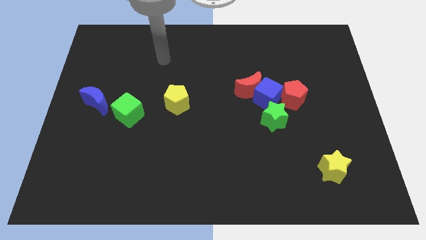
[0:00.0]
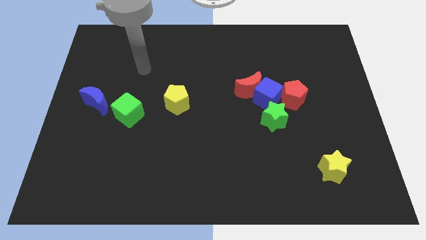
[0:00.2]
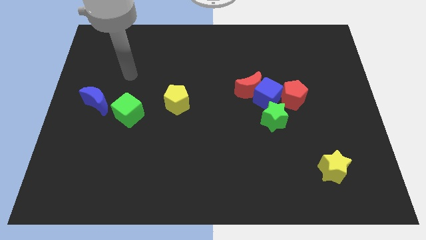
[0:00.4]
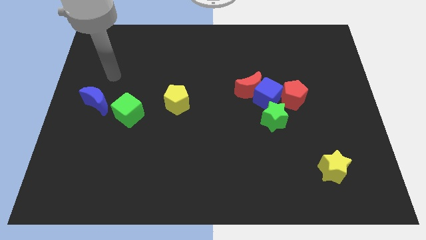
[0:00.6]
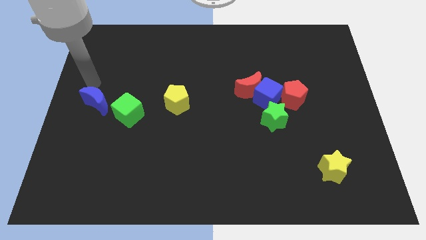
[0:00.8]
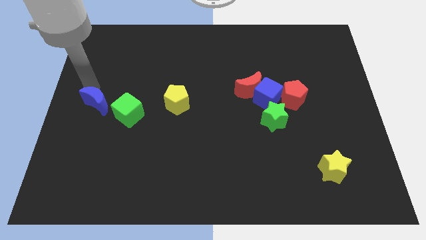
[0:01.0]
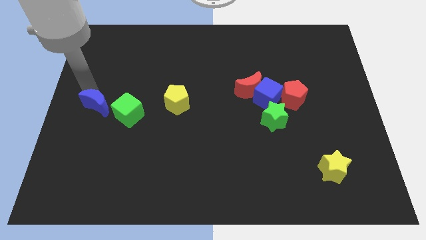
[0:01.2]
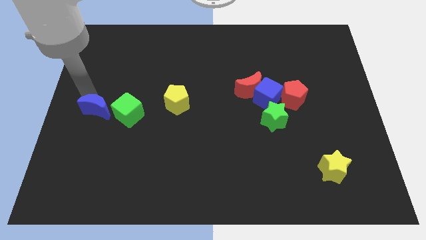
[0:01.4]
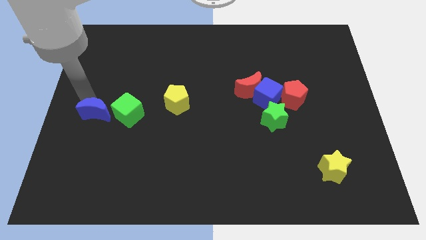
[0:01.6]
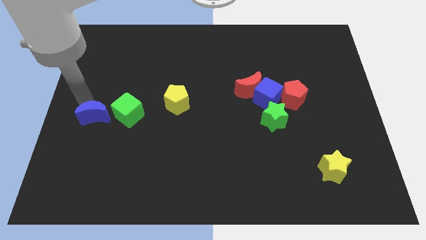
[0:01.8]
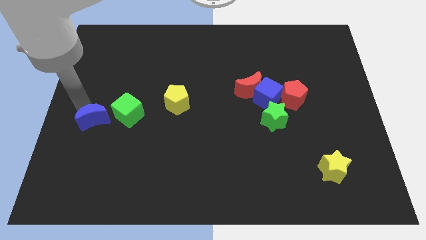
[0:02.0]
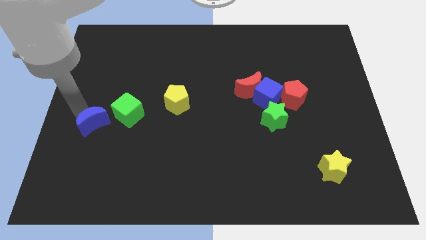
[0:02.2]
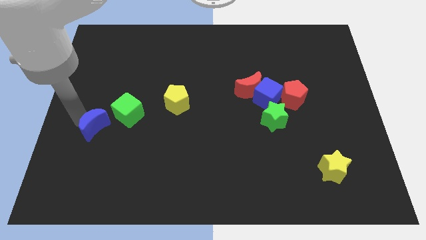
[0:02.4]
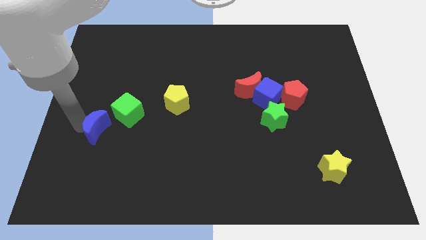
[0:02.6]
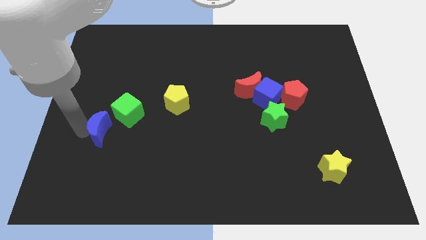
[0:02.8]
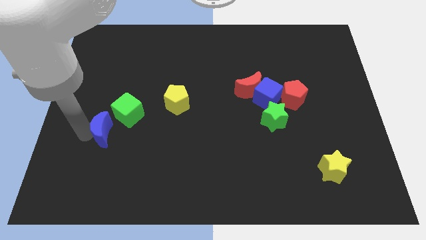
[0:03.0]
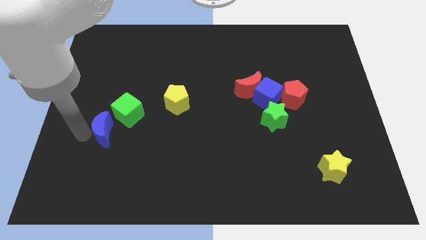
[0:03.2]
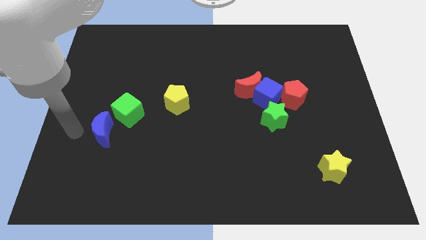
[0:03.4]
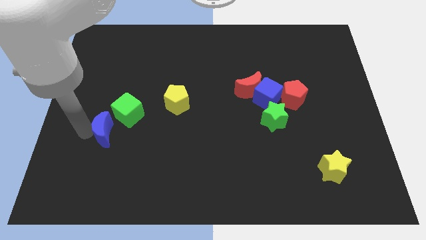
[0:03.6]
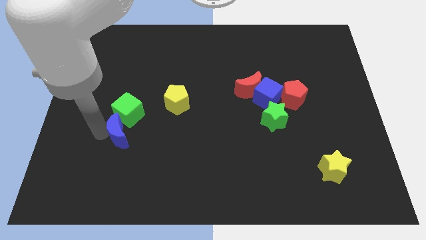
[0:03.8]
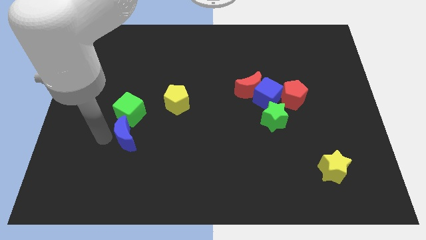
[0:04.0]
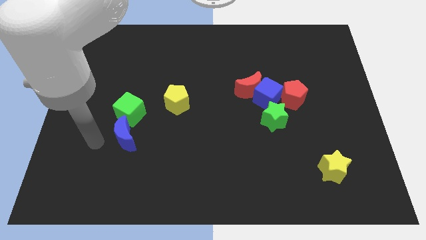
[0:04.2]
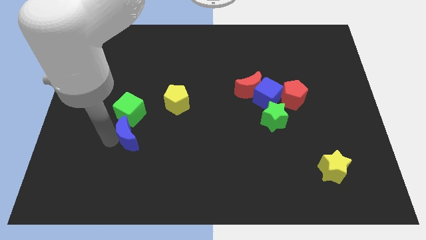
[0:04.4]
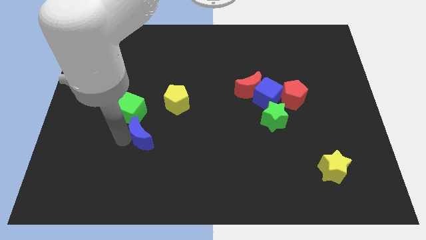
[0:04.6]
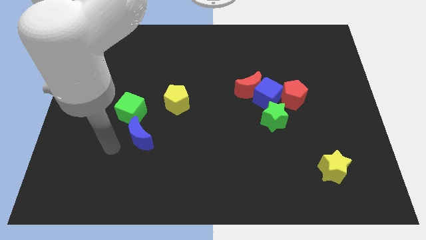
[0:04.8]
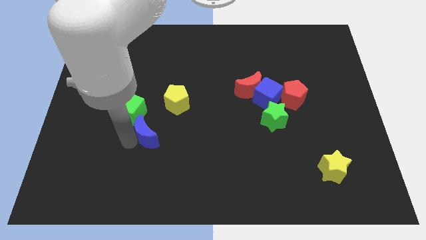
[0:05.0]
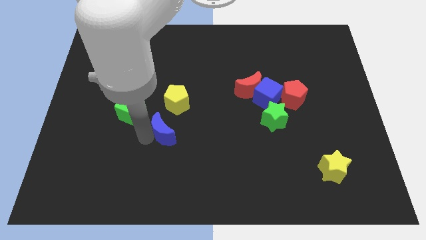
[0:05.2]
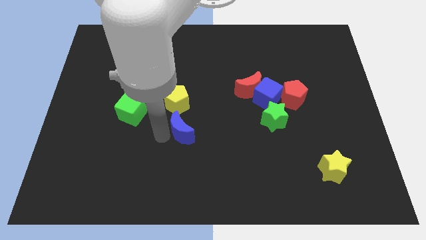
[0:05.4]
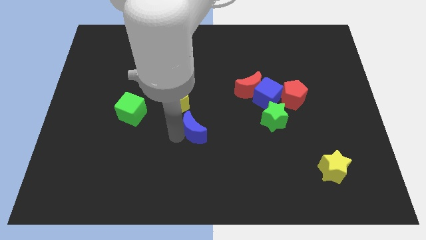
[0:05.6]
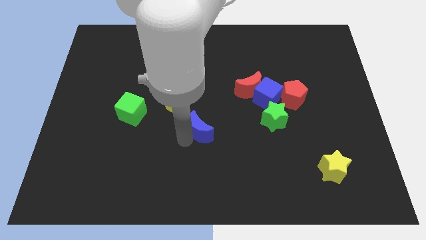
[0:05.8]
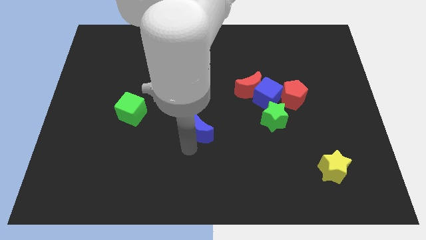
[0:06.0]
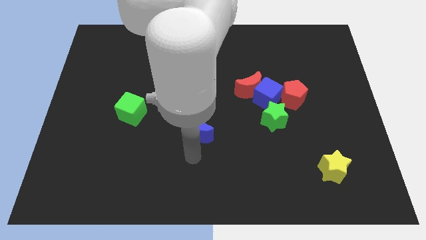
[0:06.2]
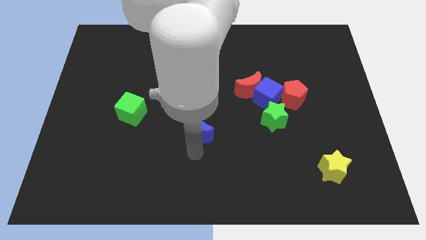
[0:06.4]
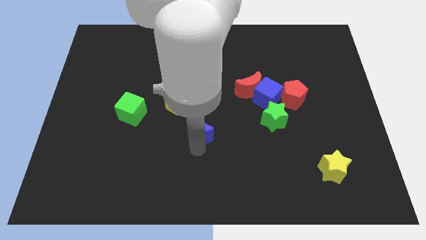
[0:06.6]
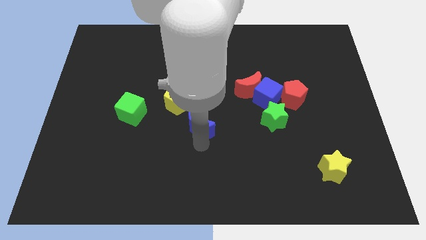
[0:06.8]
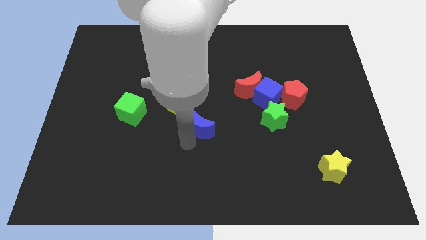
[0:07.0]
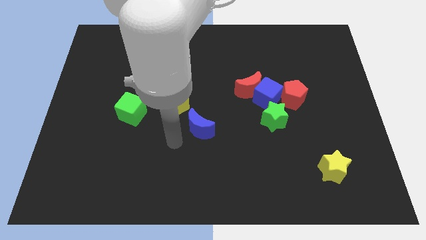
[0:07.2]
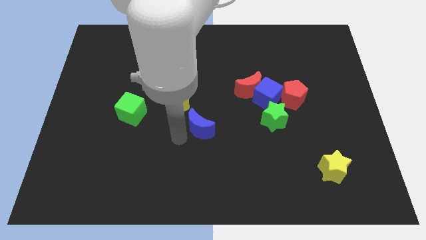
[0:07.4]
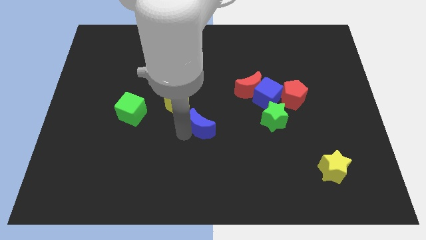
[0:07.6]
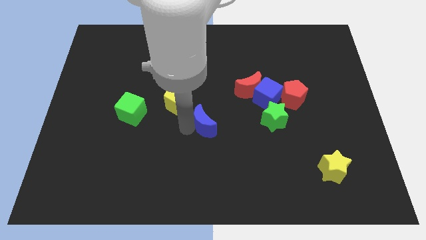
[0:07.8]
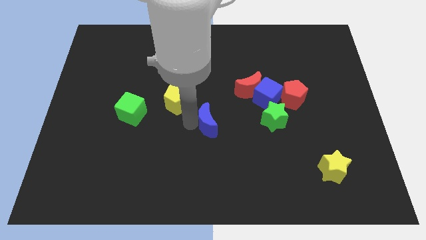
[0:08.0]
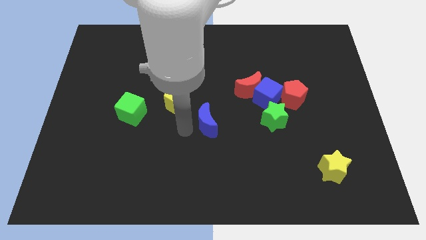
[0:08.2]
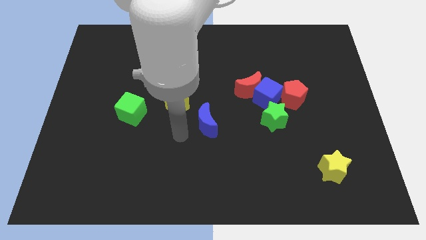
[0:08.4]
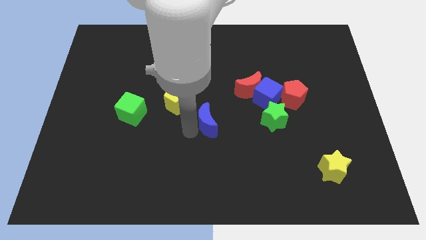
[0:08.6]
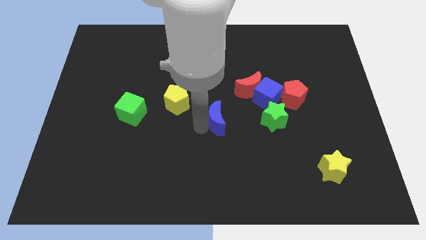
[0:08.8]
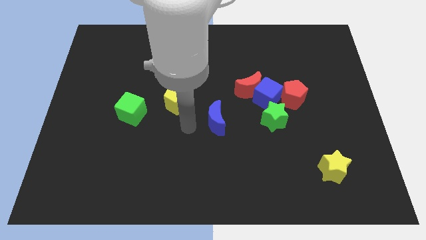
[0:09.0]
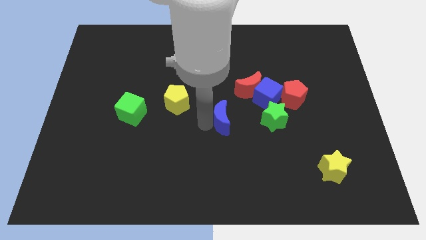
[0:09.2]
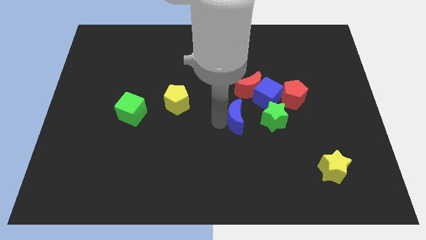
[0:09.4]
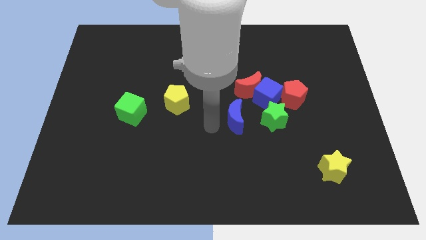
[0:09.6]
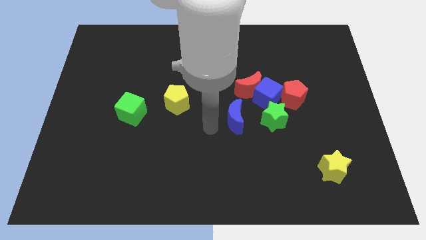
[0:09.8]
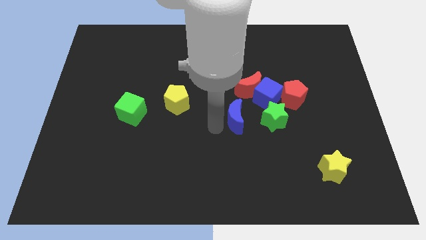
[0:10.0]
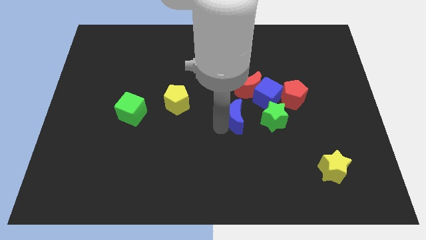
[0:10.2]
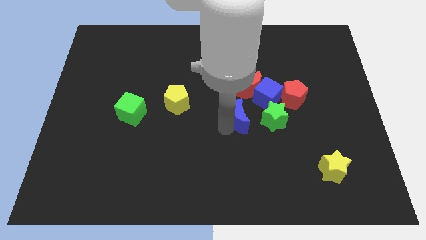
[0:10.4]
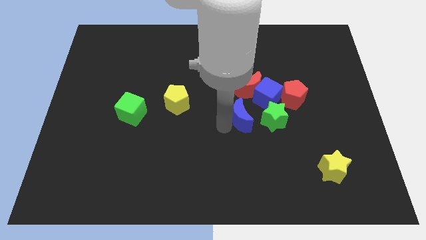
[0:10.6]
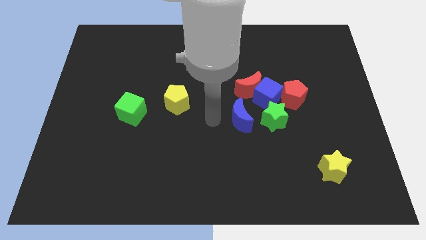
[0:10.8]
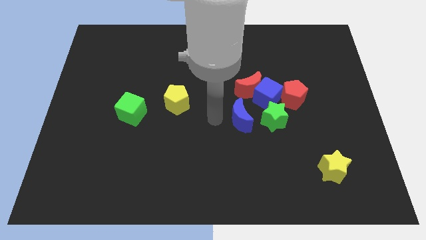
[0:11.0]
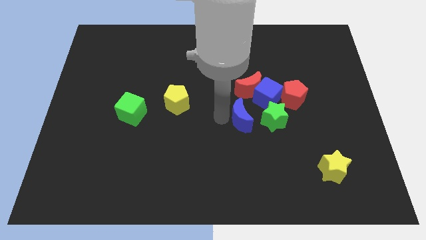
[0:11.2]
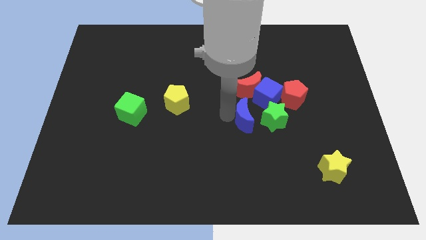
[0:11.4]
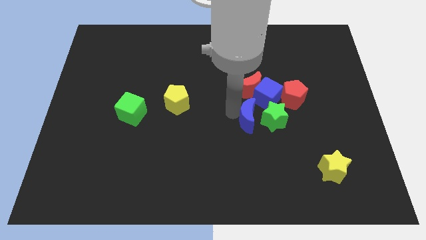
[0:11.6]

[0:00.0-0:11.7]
push the blue moon towards the green star

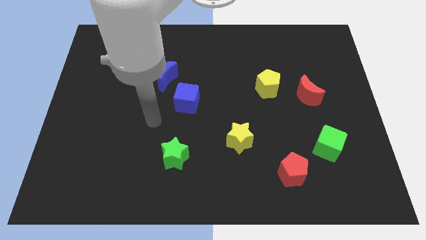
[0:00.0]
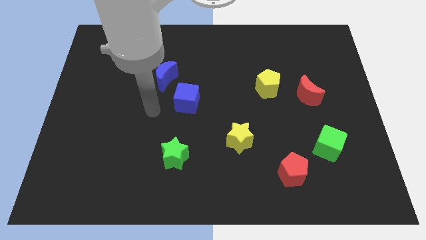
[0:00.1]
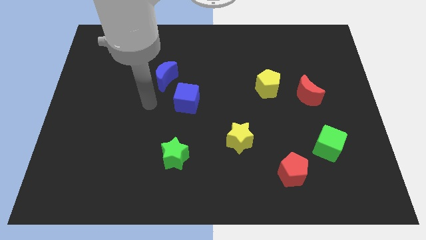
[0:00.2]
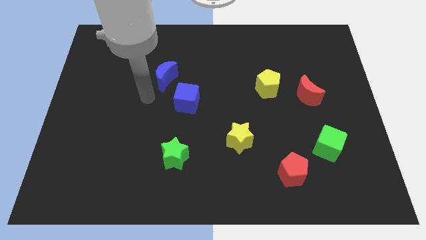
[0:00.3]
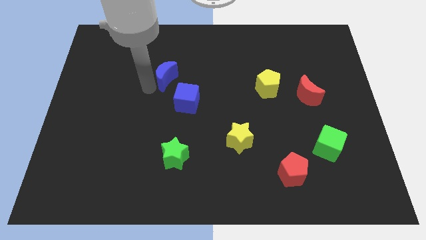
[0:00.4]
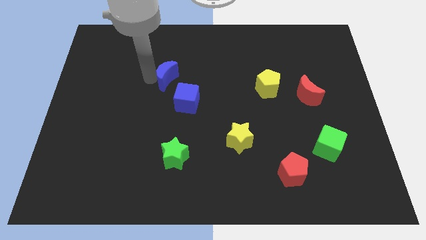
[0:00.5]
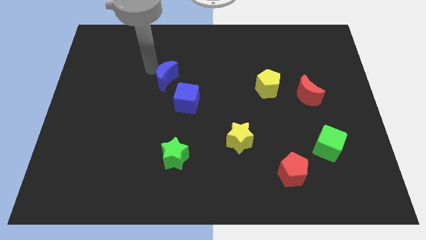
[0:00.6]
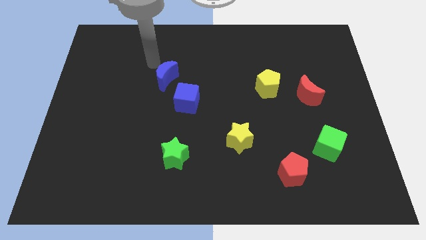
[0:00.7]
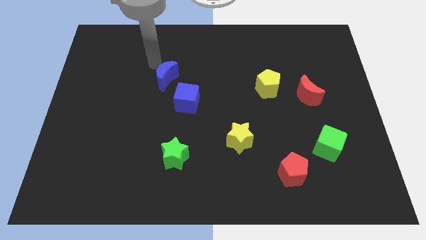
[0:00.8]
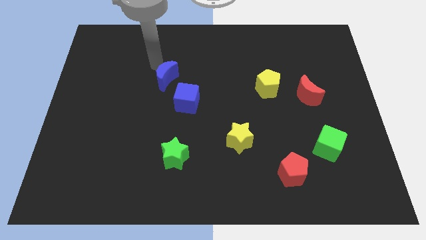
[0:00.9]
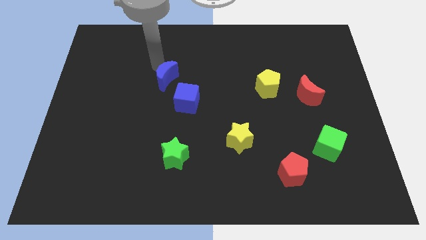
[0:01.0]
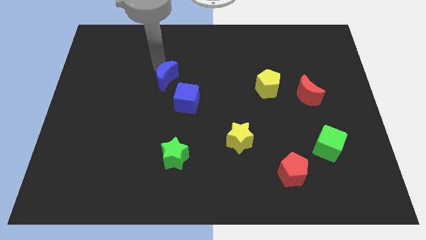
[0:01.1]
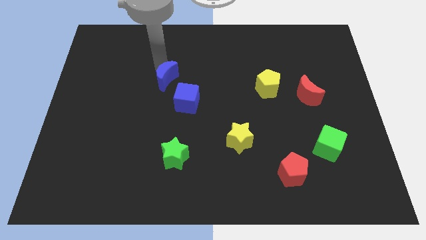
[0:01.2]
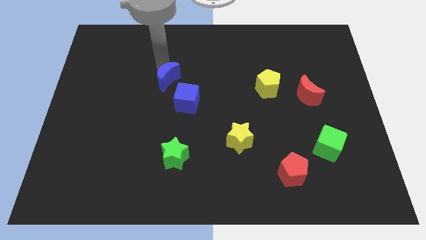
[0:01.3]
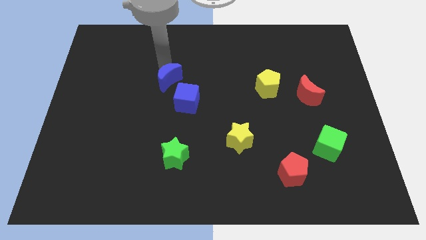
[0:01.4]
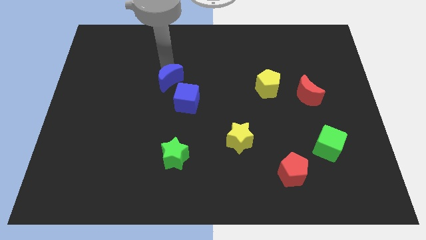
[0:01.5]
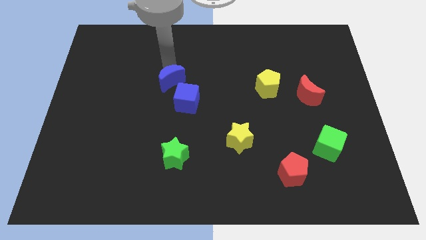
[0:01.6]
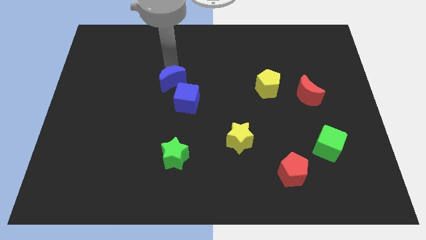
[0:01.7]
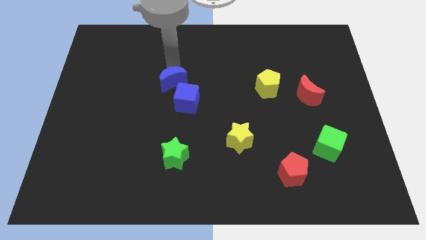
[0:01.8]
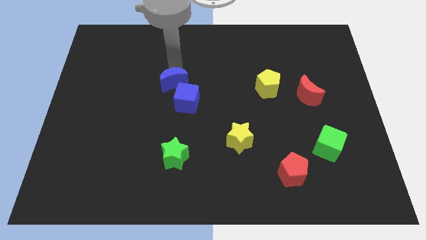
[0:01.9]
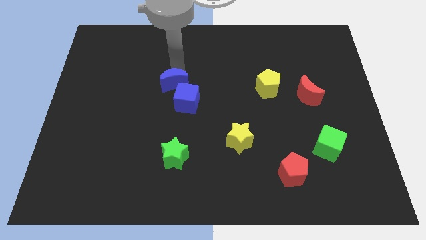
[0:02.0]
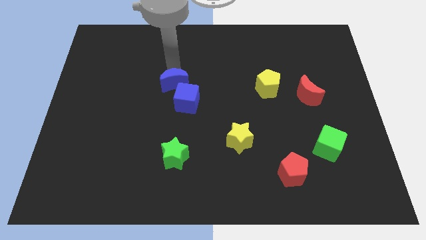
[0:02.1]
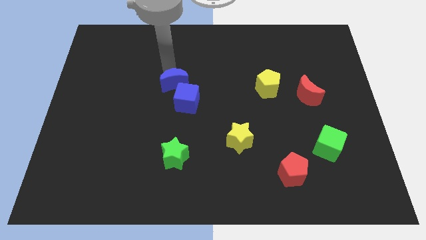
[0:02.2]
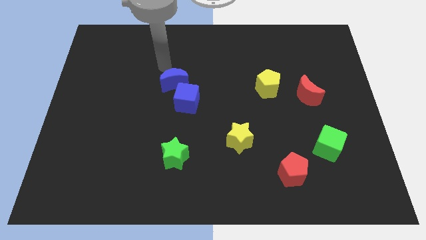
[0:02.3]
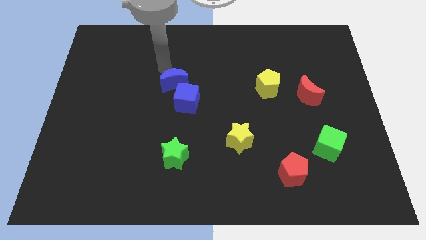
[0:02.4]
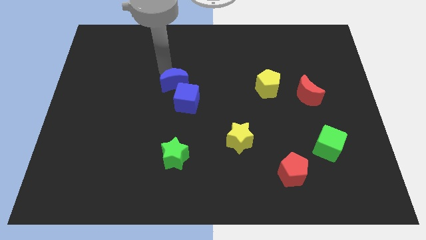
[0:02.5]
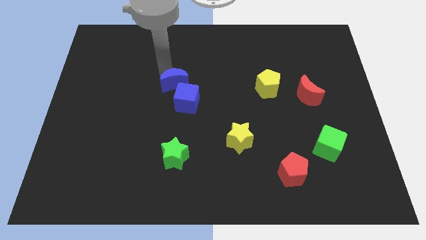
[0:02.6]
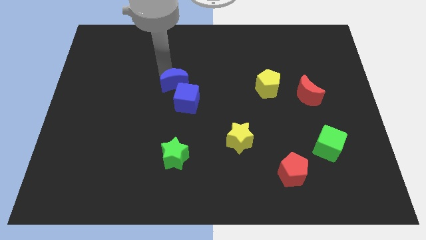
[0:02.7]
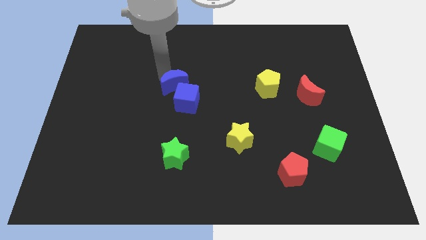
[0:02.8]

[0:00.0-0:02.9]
put the blue moon next to the blue cube
